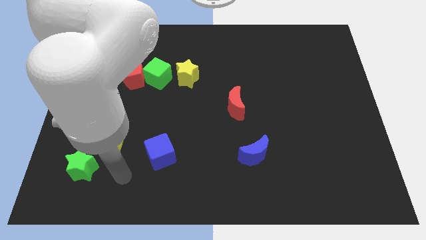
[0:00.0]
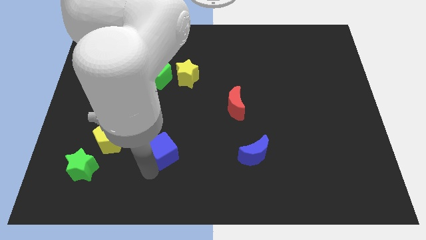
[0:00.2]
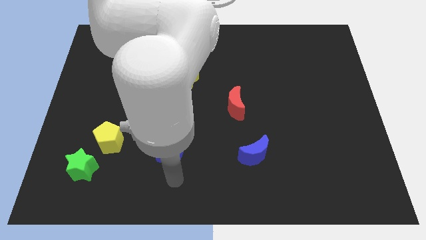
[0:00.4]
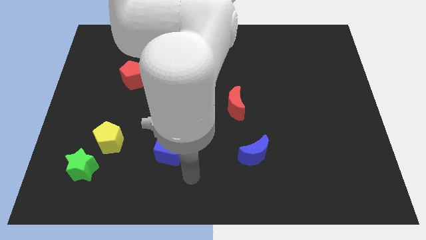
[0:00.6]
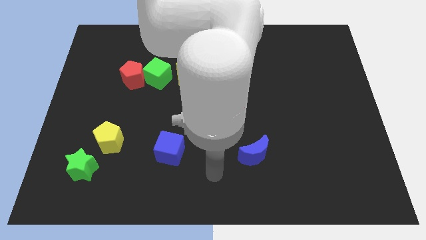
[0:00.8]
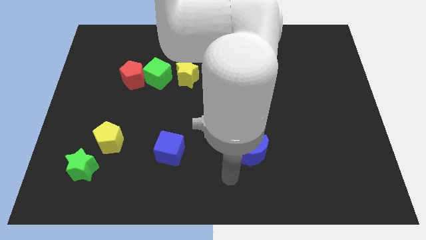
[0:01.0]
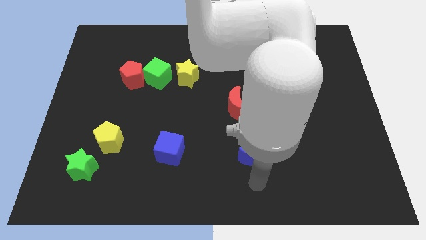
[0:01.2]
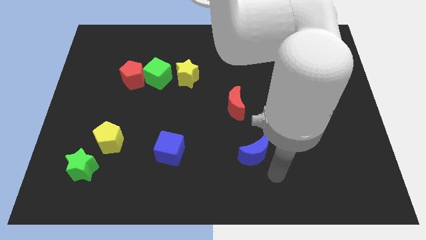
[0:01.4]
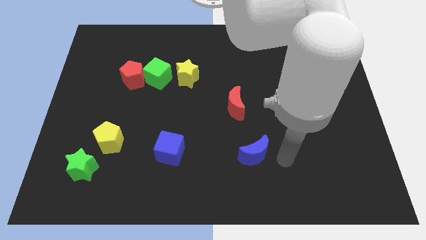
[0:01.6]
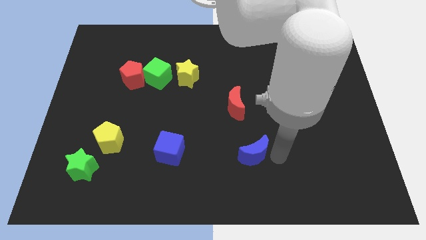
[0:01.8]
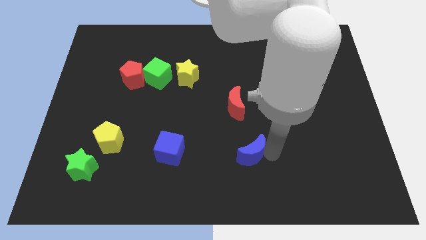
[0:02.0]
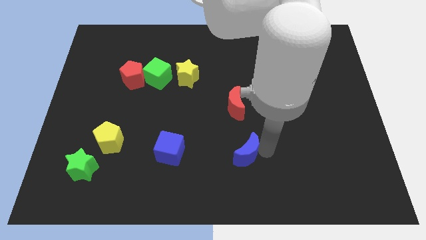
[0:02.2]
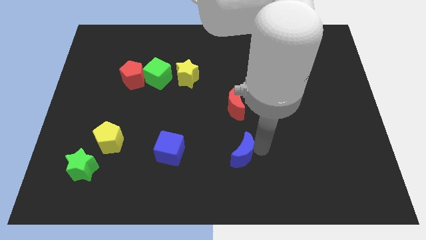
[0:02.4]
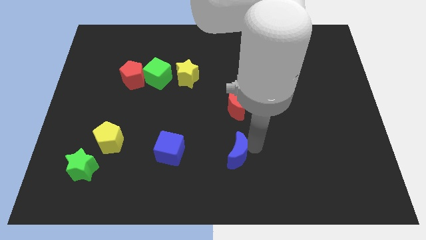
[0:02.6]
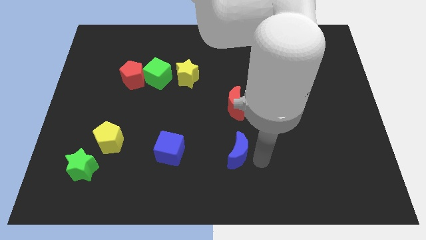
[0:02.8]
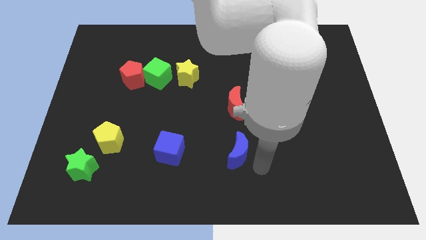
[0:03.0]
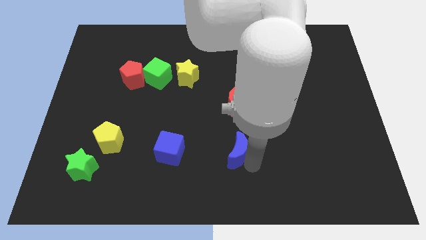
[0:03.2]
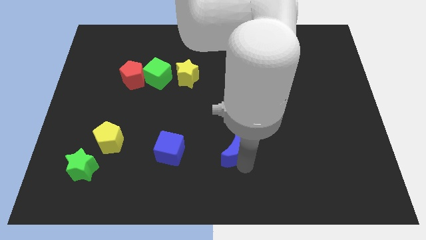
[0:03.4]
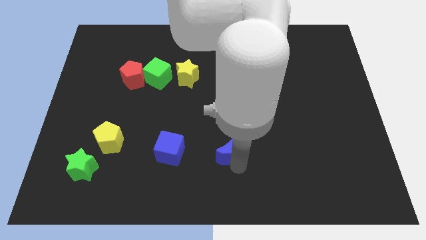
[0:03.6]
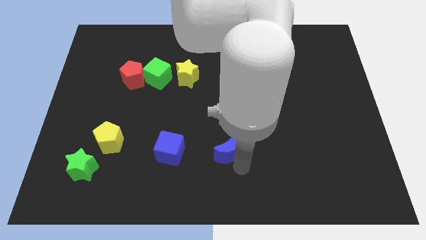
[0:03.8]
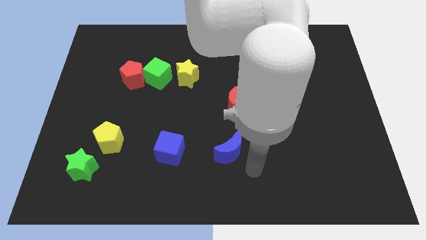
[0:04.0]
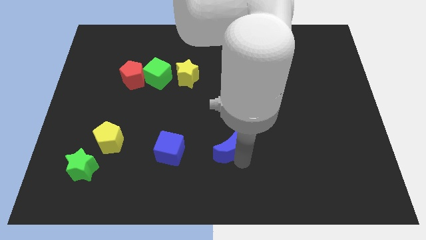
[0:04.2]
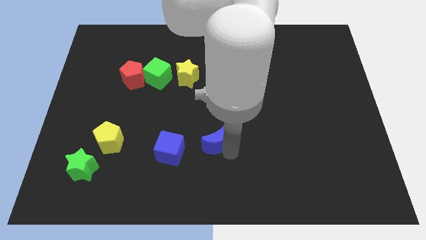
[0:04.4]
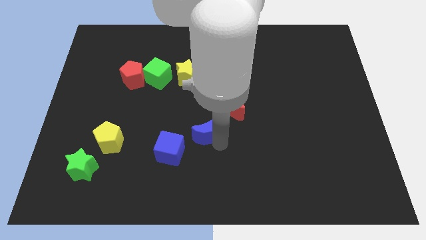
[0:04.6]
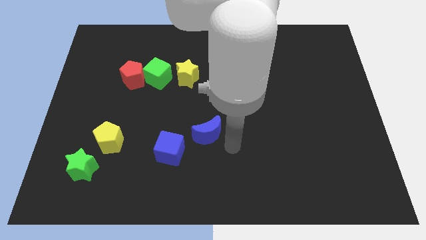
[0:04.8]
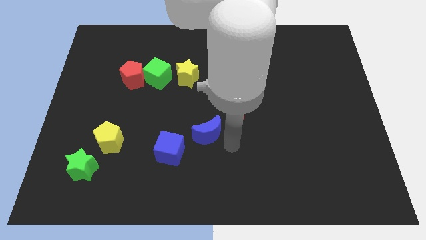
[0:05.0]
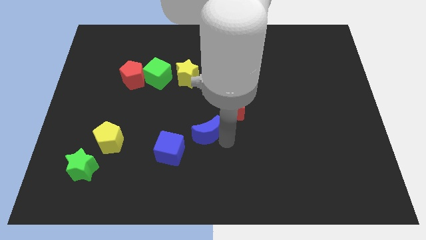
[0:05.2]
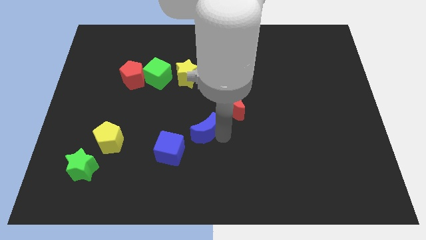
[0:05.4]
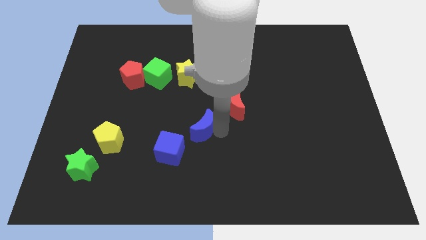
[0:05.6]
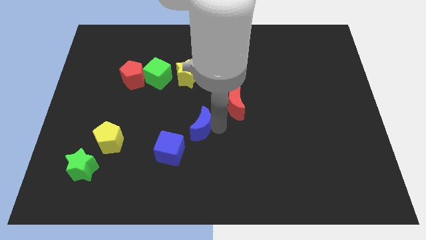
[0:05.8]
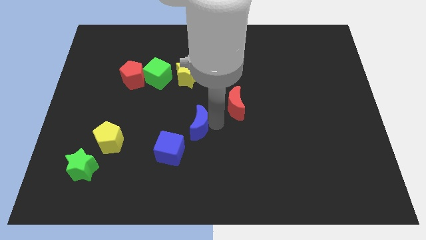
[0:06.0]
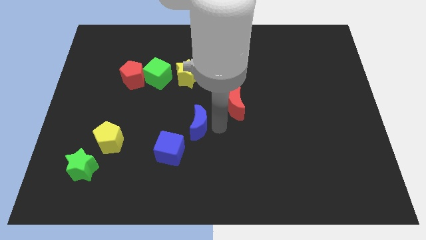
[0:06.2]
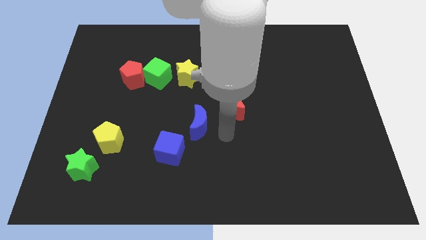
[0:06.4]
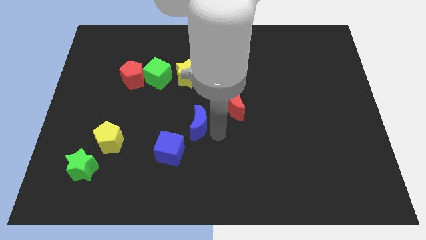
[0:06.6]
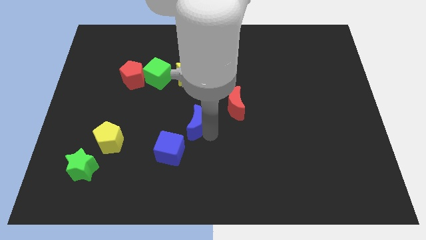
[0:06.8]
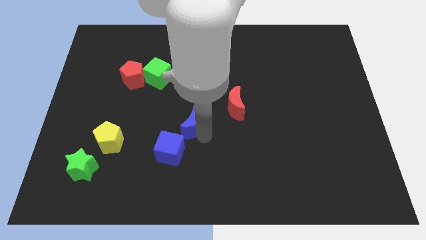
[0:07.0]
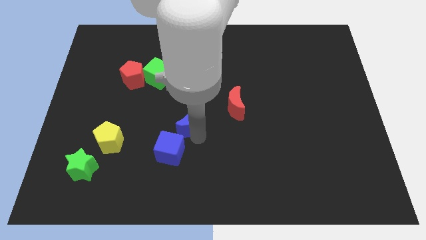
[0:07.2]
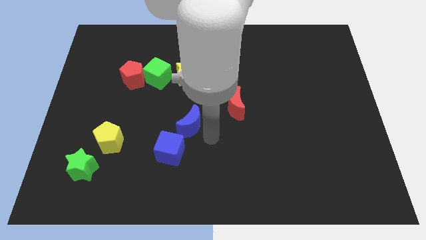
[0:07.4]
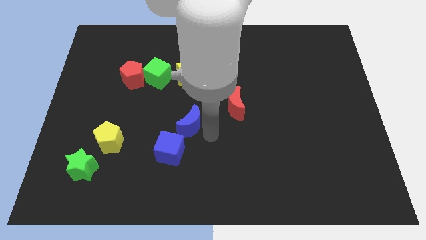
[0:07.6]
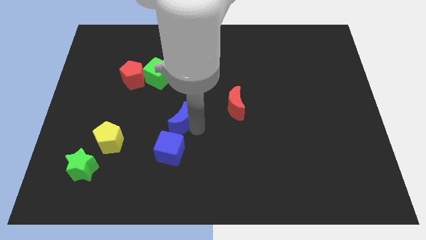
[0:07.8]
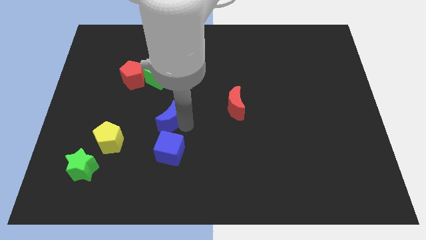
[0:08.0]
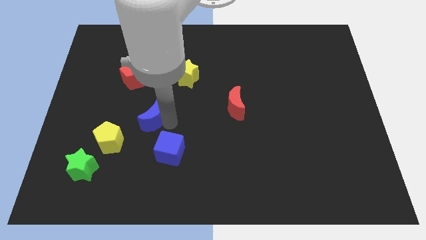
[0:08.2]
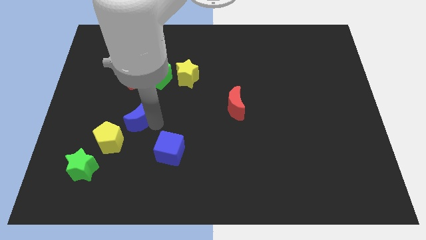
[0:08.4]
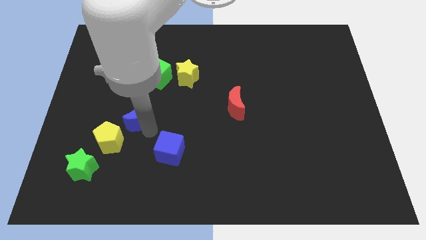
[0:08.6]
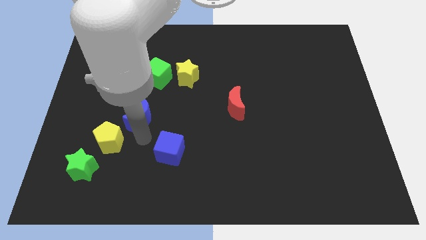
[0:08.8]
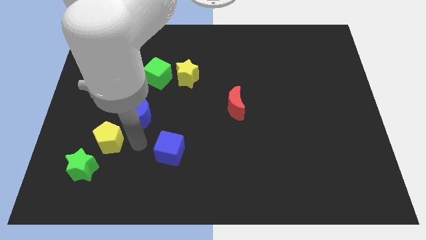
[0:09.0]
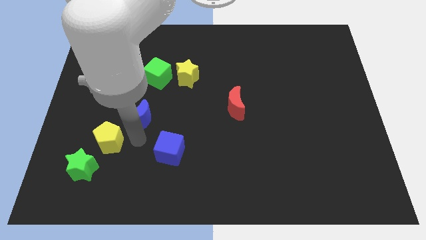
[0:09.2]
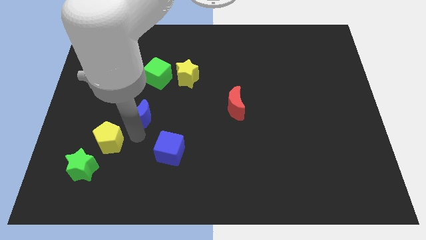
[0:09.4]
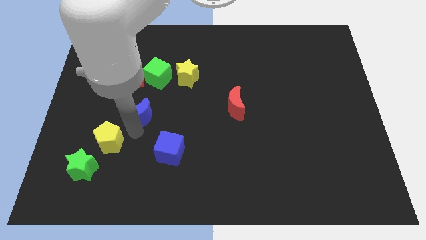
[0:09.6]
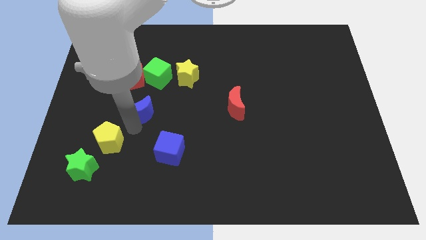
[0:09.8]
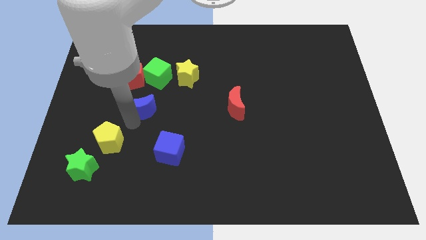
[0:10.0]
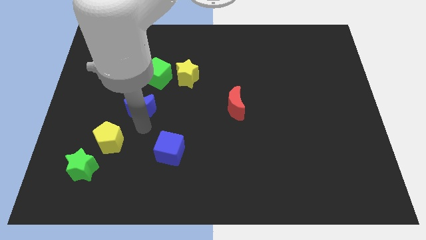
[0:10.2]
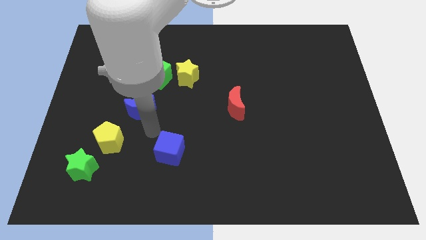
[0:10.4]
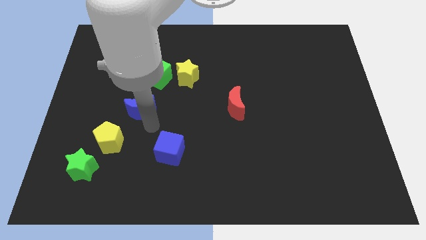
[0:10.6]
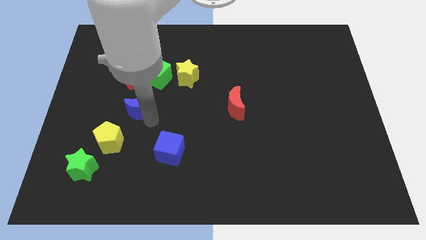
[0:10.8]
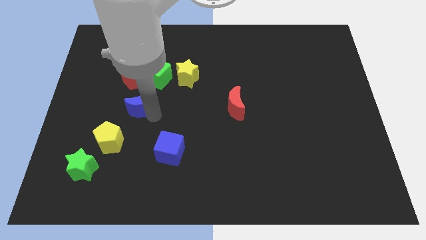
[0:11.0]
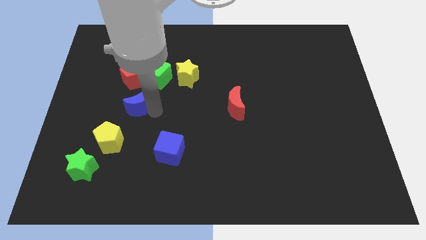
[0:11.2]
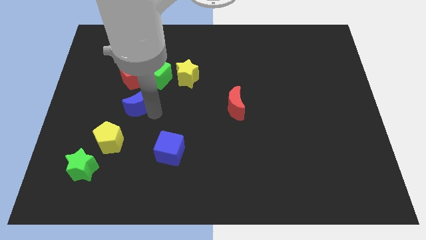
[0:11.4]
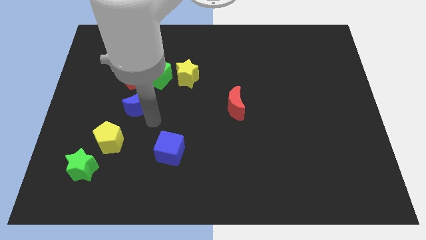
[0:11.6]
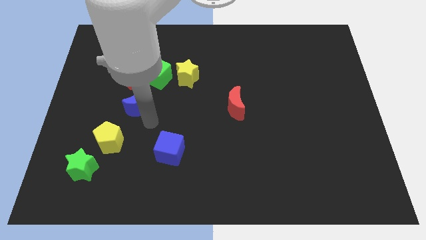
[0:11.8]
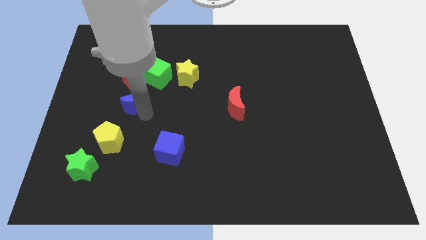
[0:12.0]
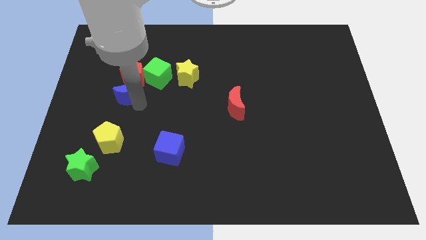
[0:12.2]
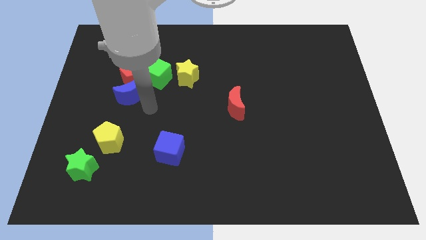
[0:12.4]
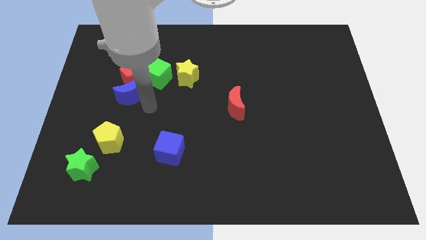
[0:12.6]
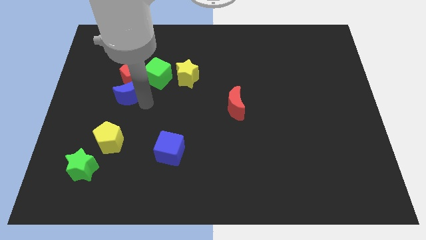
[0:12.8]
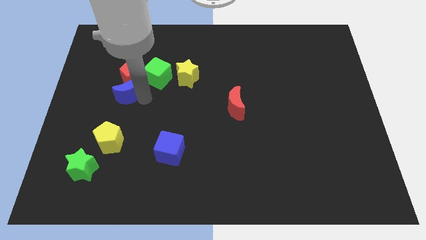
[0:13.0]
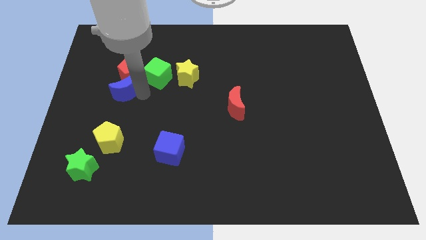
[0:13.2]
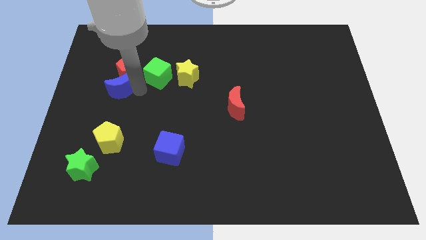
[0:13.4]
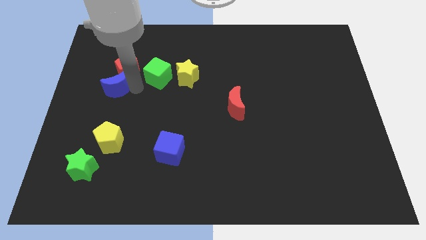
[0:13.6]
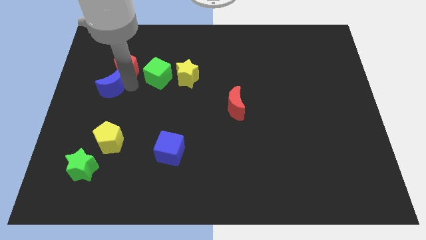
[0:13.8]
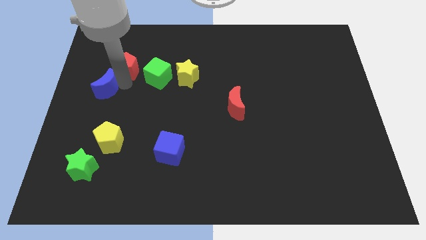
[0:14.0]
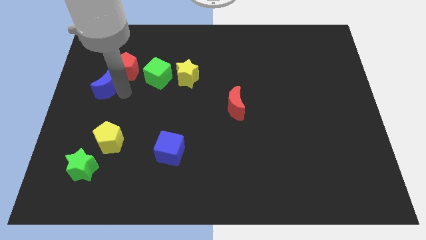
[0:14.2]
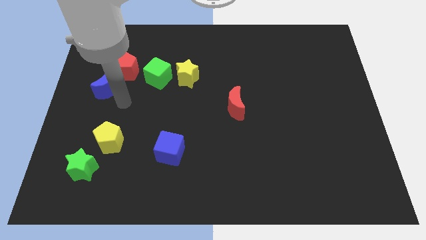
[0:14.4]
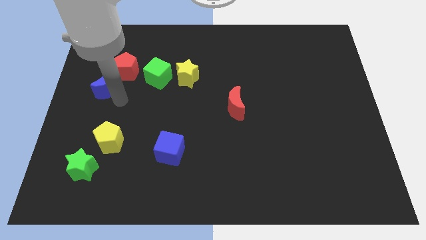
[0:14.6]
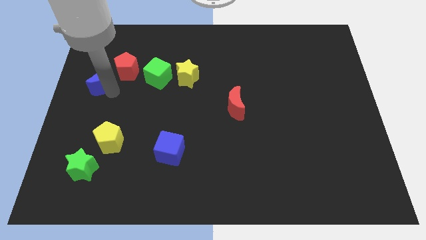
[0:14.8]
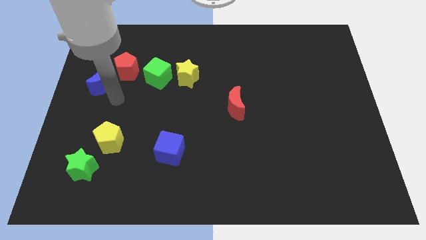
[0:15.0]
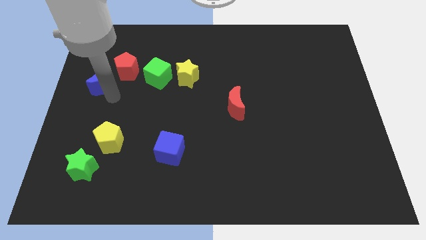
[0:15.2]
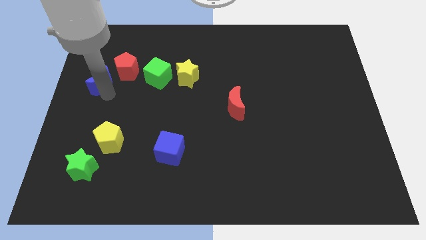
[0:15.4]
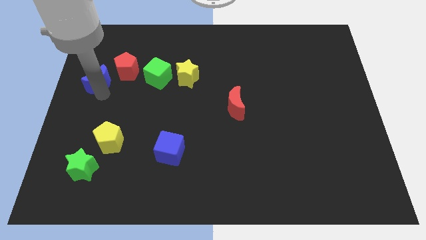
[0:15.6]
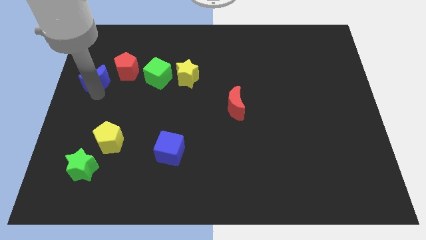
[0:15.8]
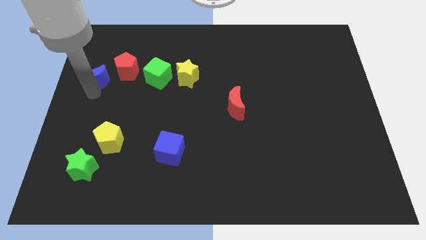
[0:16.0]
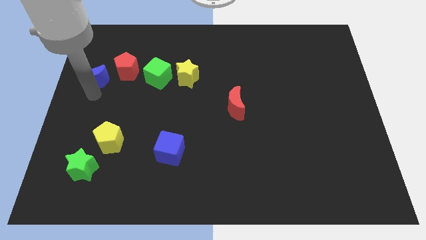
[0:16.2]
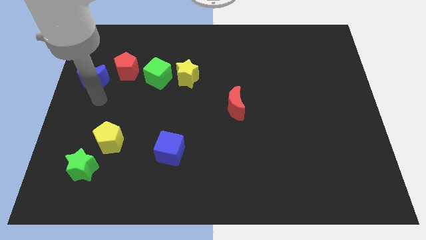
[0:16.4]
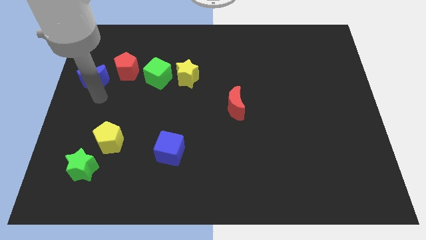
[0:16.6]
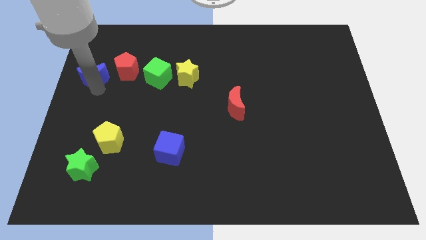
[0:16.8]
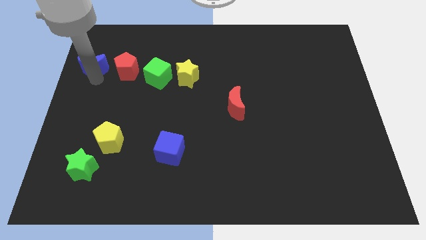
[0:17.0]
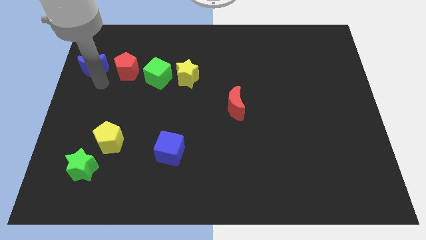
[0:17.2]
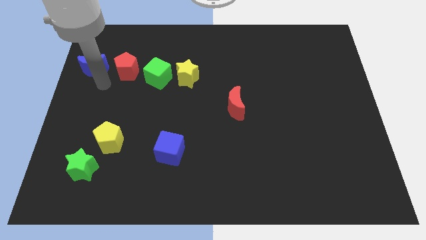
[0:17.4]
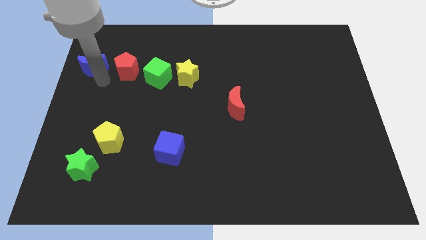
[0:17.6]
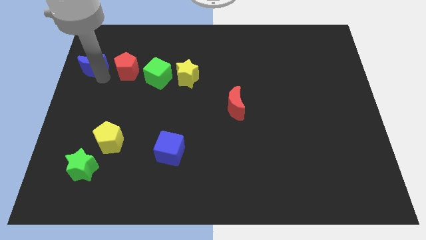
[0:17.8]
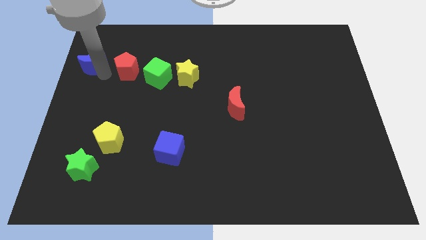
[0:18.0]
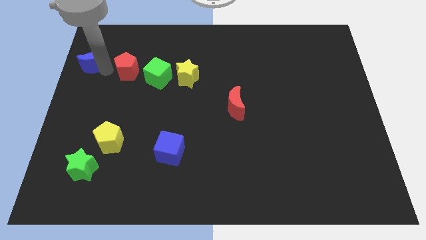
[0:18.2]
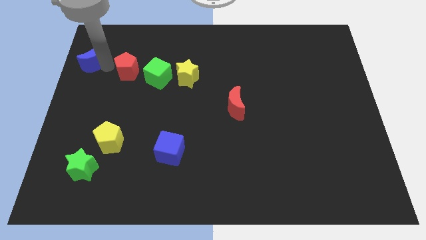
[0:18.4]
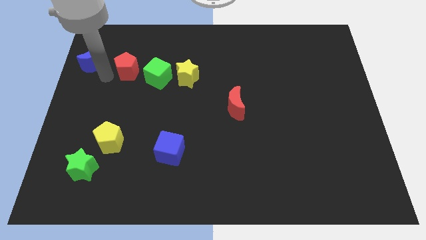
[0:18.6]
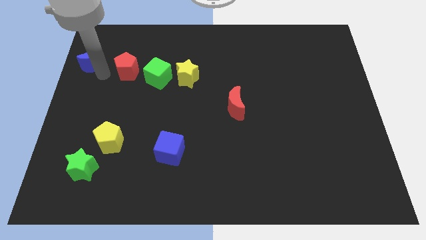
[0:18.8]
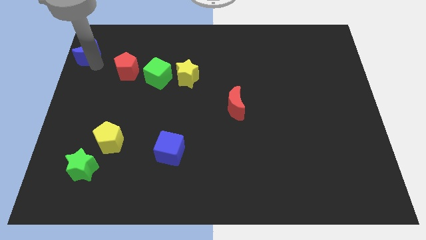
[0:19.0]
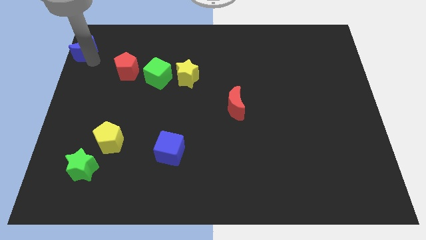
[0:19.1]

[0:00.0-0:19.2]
move the blue moon to the top left corner
